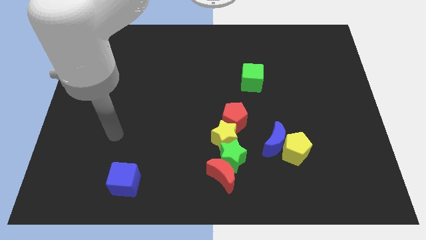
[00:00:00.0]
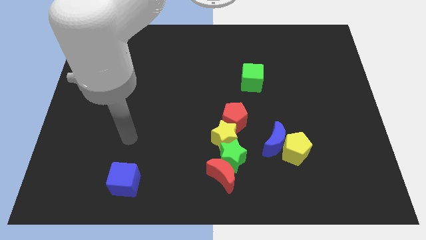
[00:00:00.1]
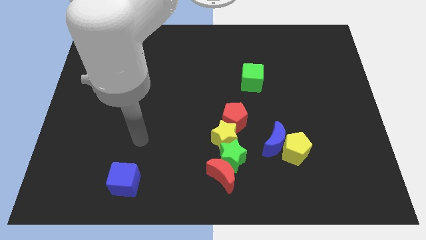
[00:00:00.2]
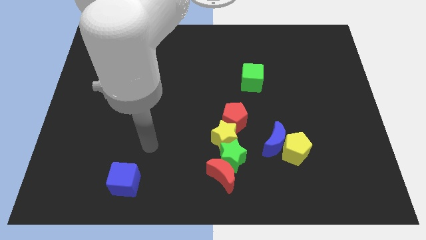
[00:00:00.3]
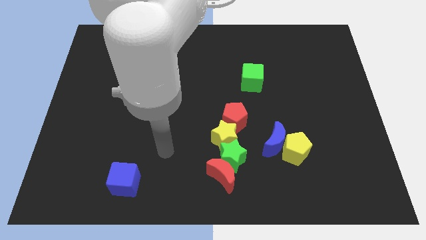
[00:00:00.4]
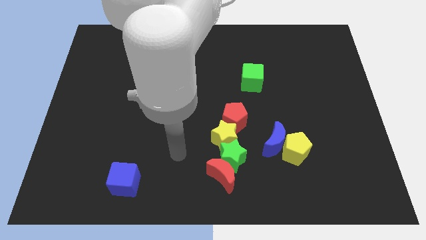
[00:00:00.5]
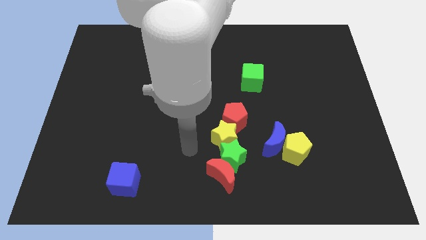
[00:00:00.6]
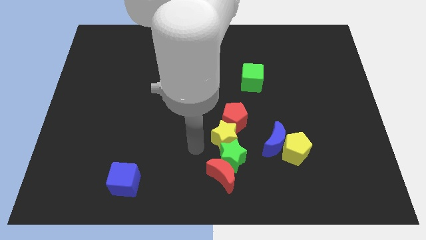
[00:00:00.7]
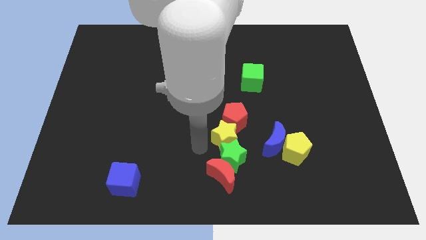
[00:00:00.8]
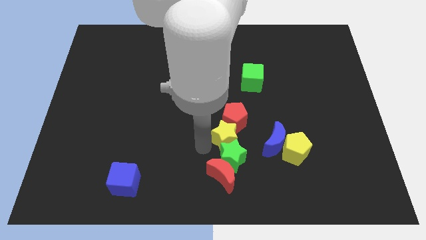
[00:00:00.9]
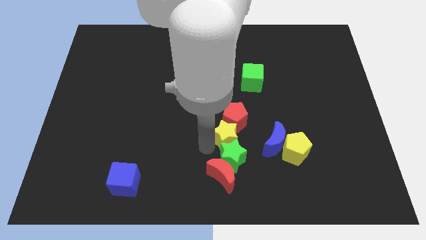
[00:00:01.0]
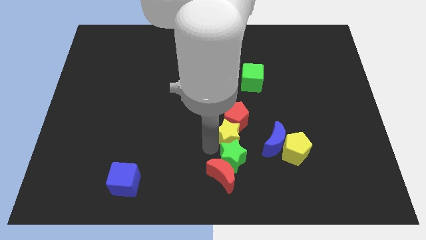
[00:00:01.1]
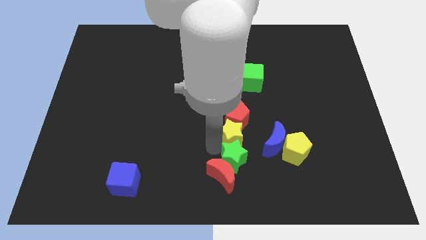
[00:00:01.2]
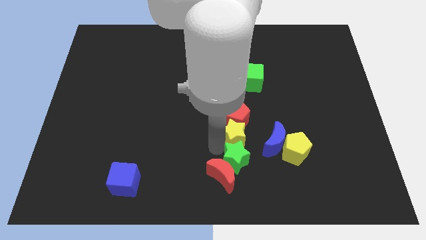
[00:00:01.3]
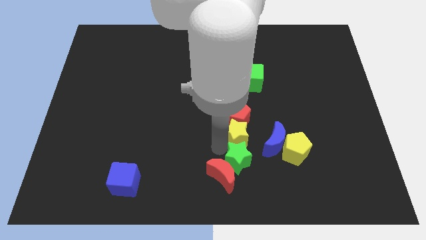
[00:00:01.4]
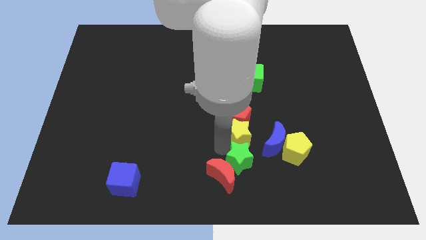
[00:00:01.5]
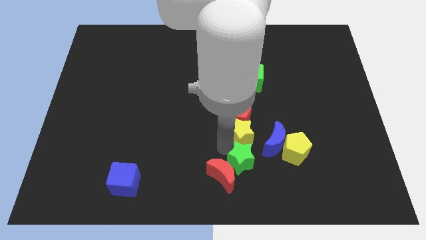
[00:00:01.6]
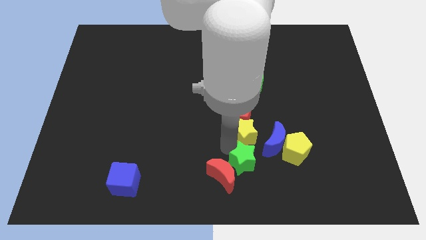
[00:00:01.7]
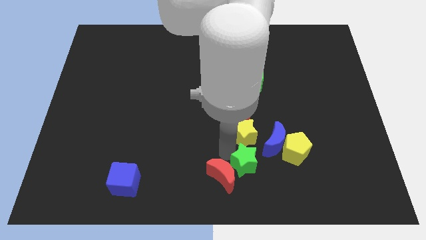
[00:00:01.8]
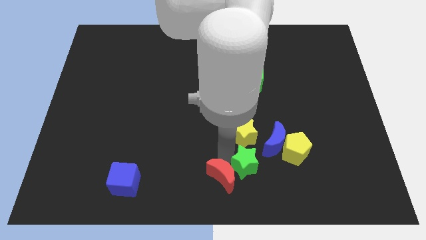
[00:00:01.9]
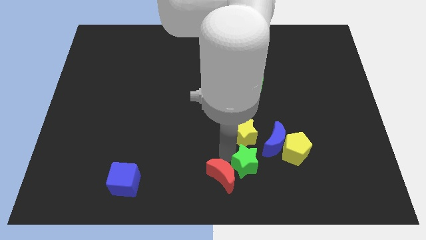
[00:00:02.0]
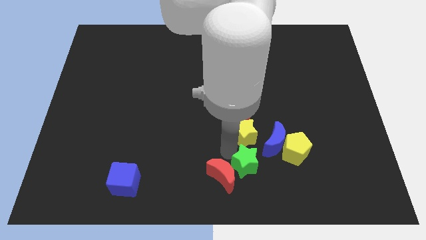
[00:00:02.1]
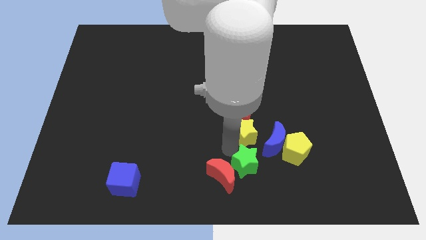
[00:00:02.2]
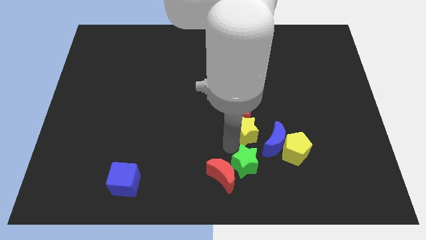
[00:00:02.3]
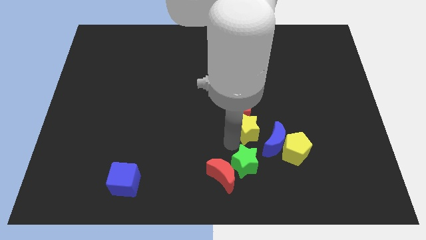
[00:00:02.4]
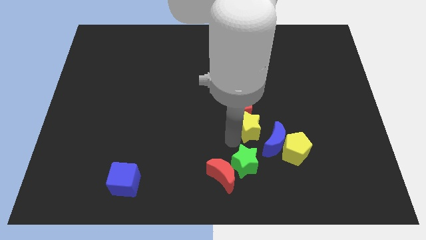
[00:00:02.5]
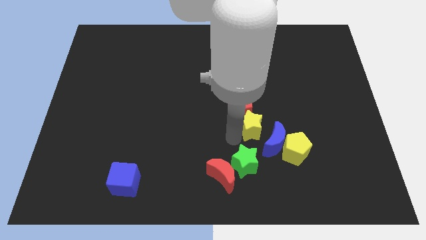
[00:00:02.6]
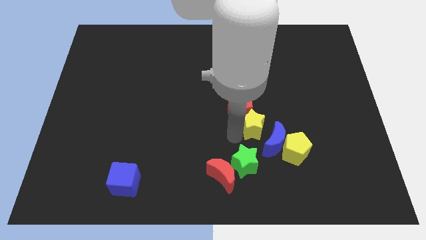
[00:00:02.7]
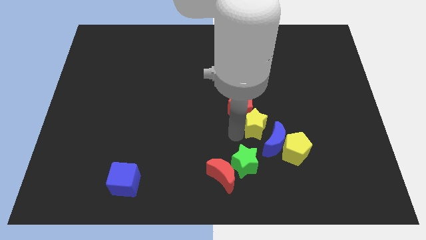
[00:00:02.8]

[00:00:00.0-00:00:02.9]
slightly move the yellow star upwards and to the right

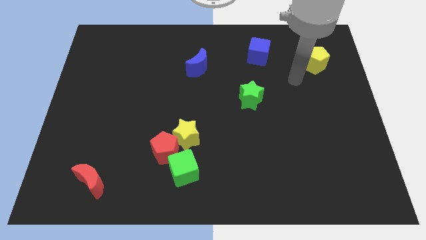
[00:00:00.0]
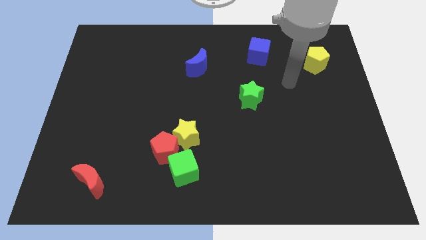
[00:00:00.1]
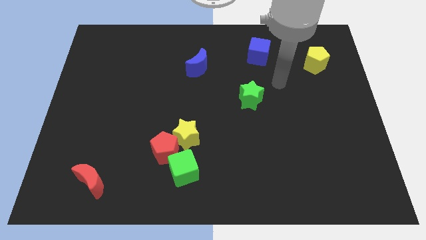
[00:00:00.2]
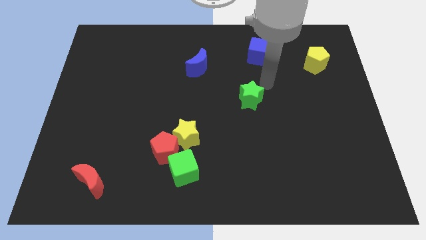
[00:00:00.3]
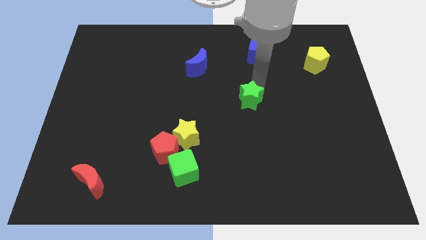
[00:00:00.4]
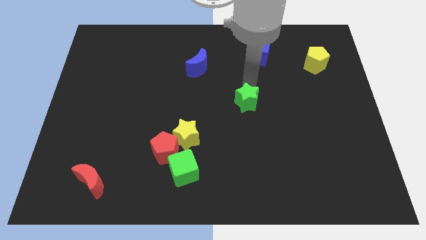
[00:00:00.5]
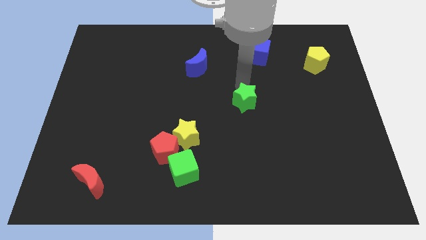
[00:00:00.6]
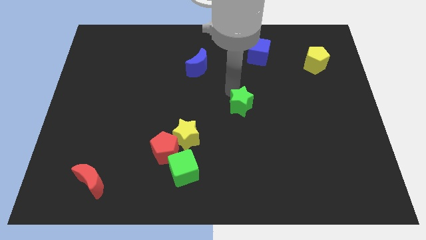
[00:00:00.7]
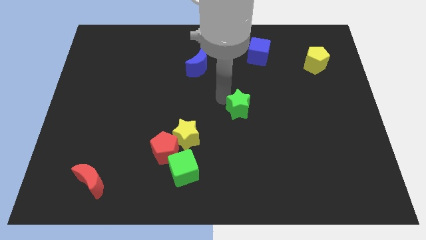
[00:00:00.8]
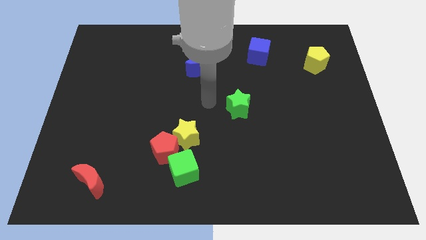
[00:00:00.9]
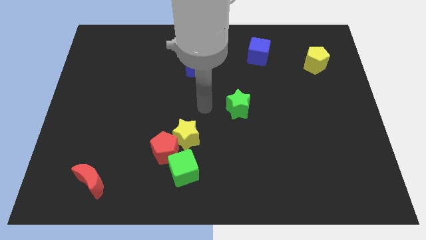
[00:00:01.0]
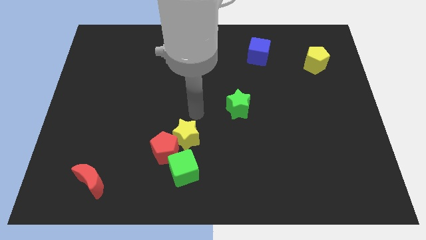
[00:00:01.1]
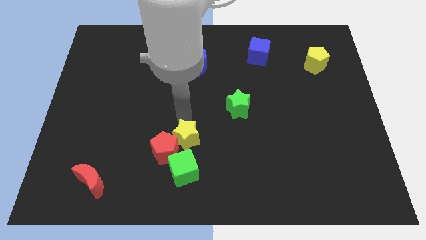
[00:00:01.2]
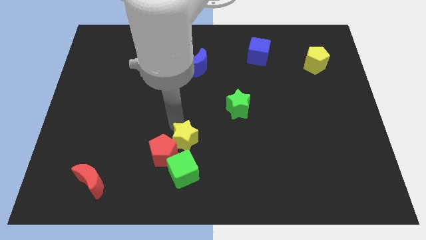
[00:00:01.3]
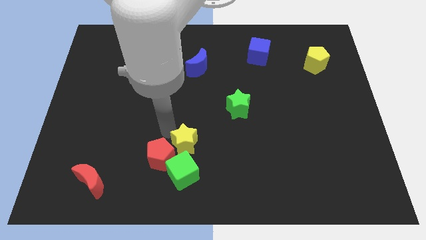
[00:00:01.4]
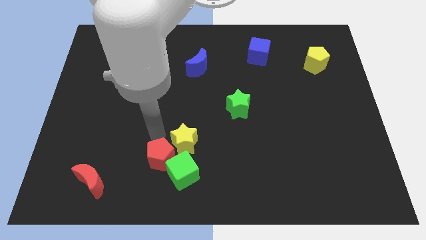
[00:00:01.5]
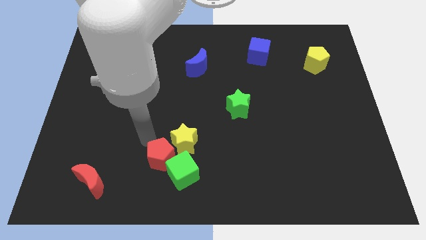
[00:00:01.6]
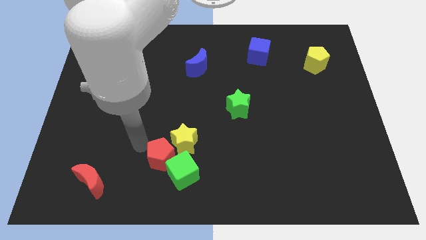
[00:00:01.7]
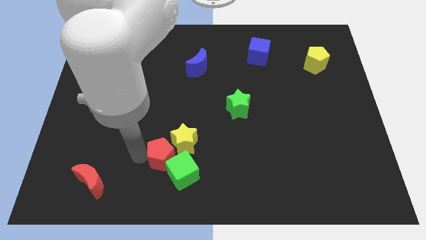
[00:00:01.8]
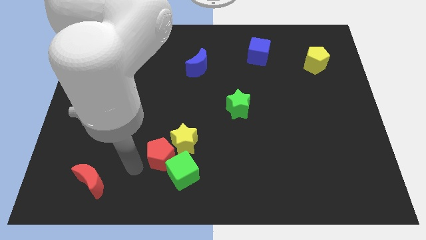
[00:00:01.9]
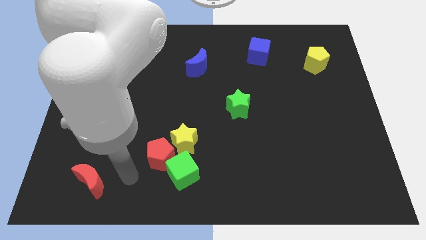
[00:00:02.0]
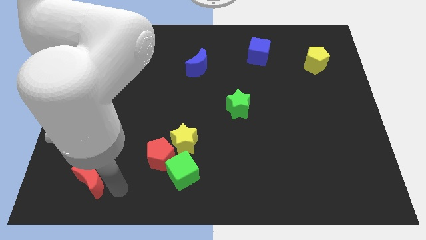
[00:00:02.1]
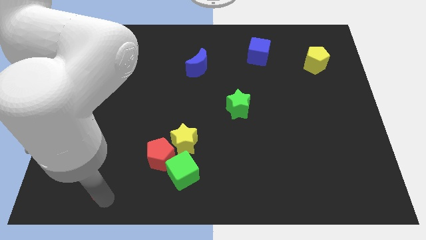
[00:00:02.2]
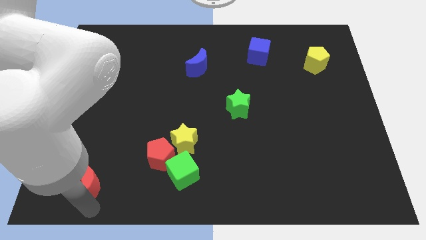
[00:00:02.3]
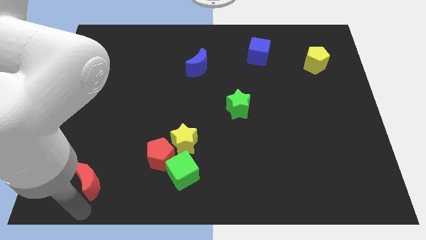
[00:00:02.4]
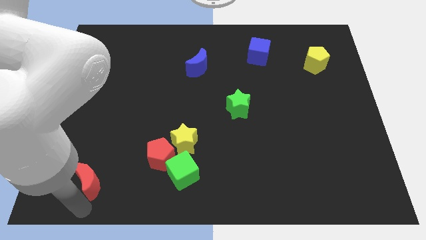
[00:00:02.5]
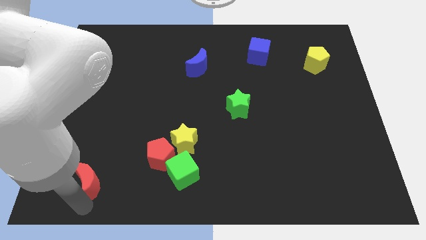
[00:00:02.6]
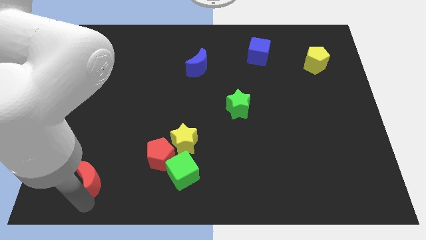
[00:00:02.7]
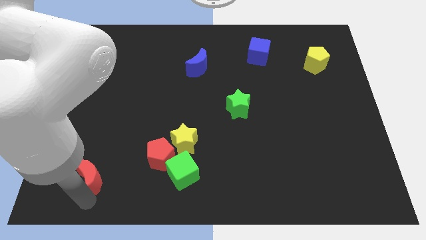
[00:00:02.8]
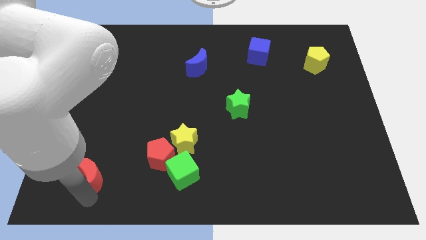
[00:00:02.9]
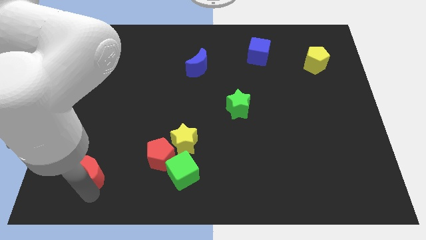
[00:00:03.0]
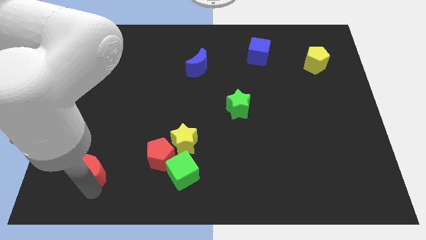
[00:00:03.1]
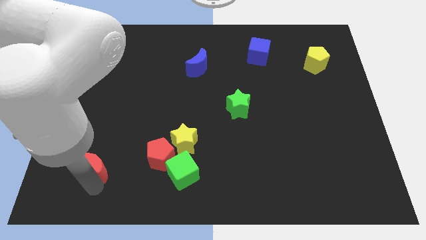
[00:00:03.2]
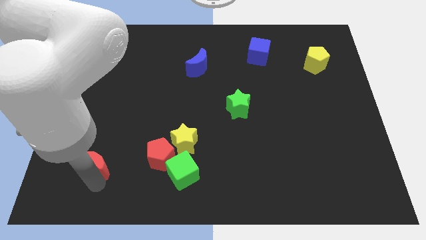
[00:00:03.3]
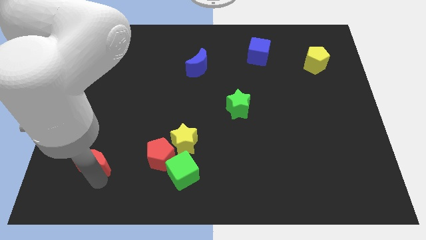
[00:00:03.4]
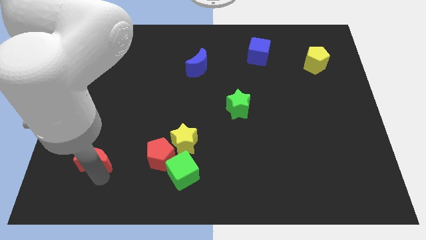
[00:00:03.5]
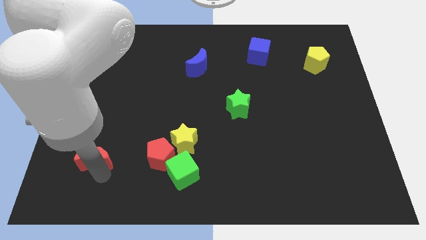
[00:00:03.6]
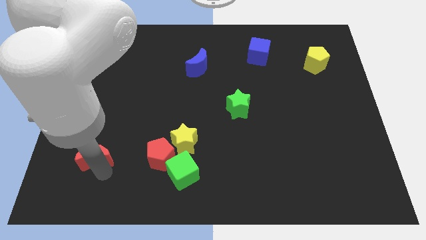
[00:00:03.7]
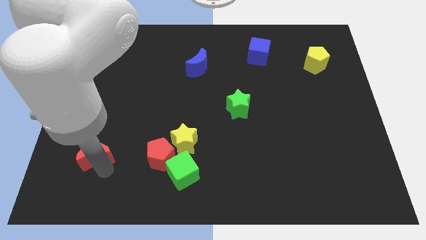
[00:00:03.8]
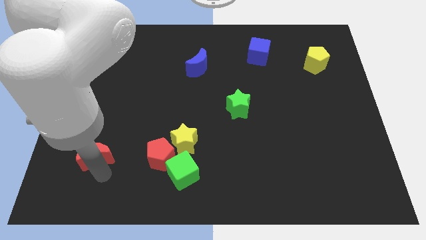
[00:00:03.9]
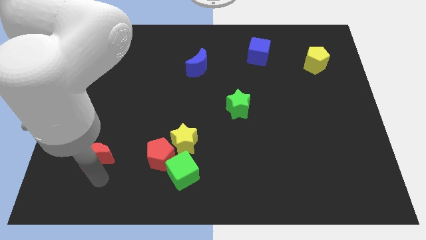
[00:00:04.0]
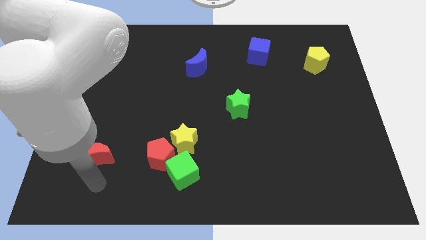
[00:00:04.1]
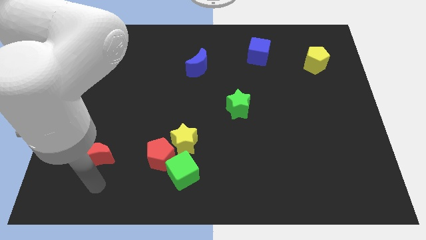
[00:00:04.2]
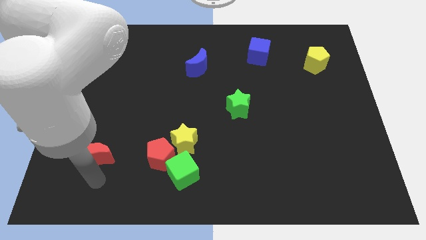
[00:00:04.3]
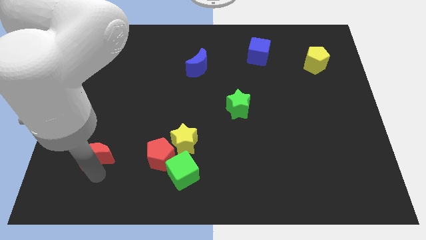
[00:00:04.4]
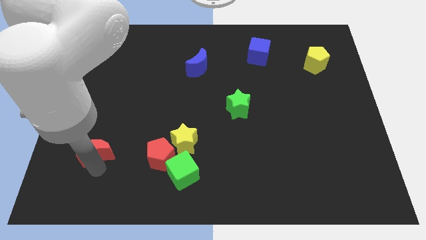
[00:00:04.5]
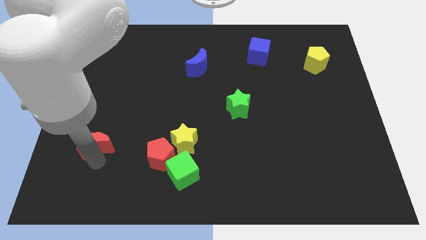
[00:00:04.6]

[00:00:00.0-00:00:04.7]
move the red moon upwards slightly

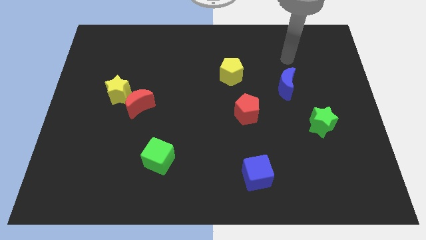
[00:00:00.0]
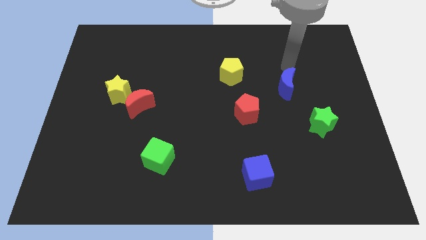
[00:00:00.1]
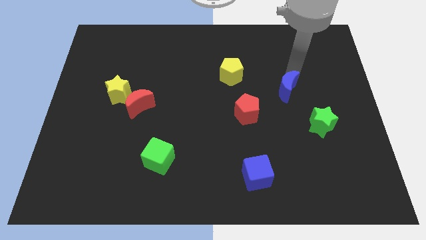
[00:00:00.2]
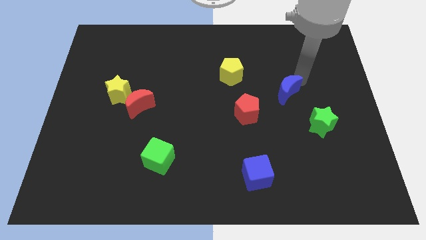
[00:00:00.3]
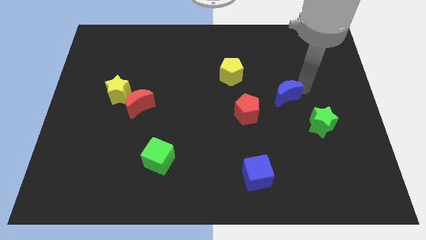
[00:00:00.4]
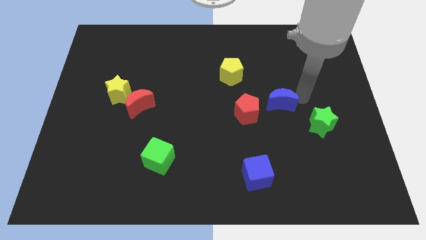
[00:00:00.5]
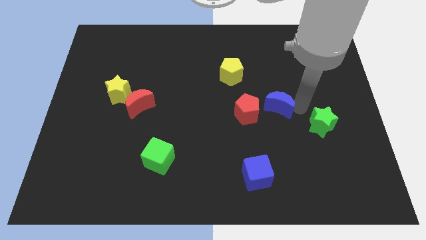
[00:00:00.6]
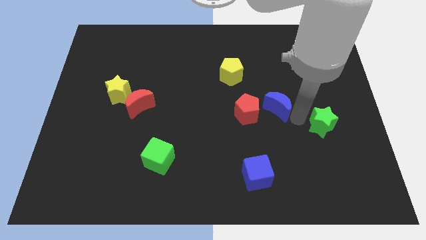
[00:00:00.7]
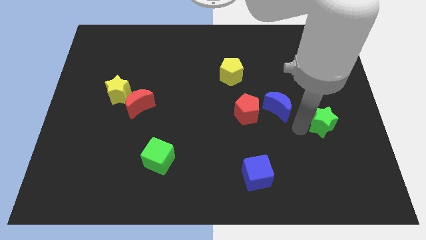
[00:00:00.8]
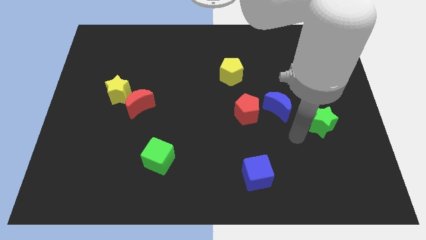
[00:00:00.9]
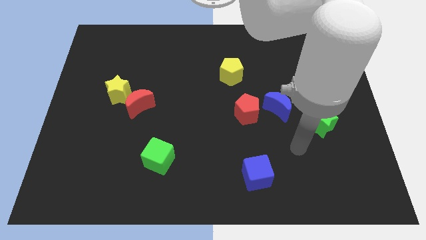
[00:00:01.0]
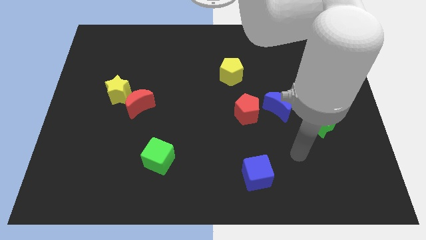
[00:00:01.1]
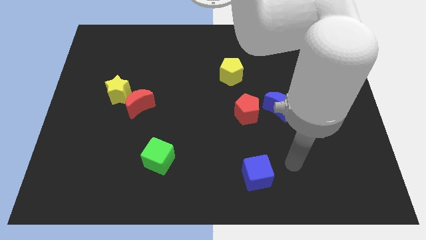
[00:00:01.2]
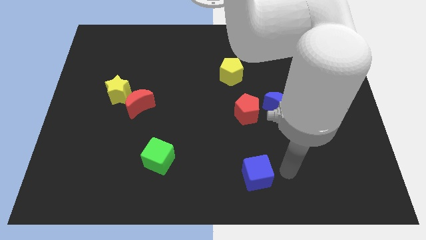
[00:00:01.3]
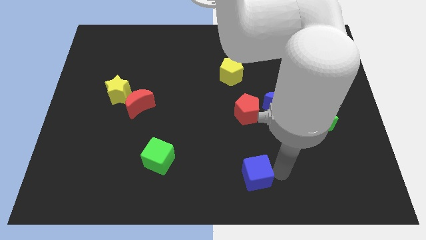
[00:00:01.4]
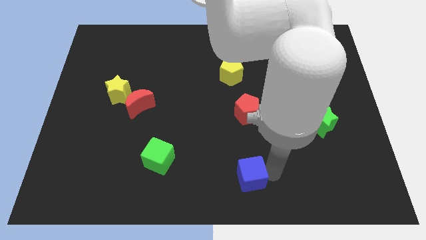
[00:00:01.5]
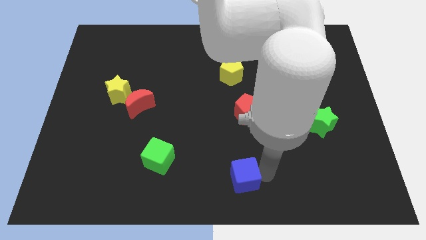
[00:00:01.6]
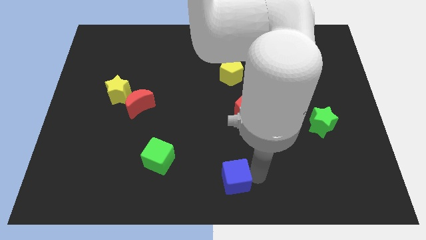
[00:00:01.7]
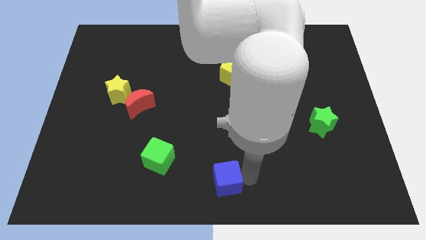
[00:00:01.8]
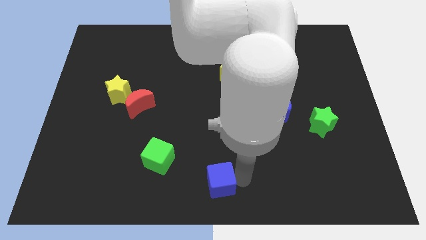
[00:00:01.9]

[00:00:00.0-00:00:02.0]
slightly move the blue cube left
